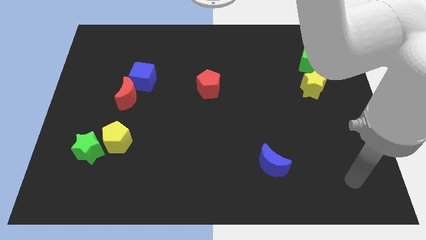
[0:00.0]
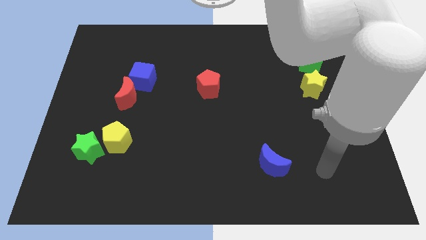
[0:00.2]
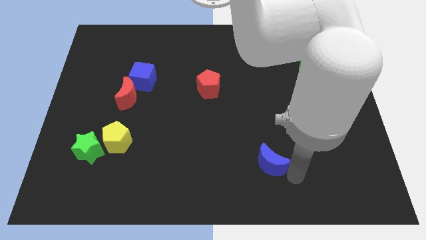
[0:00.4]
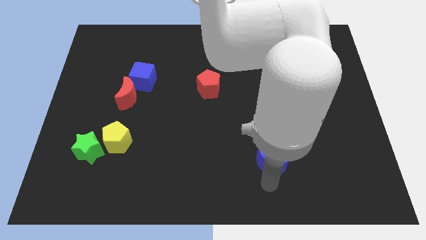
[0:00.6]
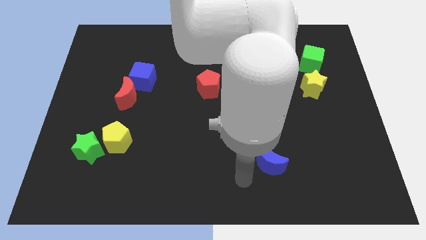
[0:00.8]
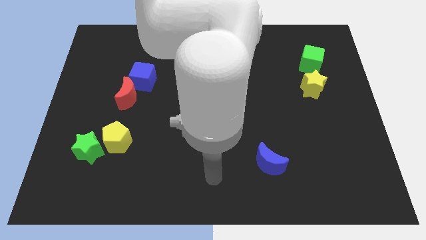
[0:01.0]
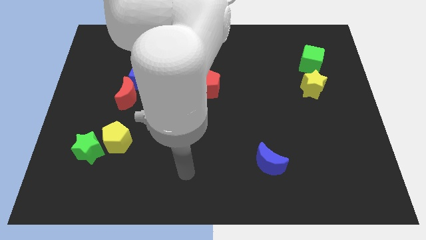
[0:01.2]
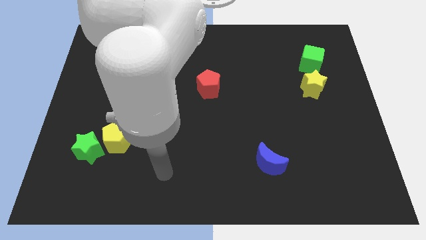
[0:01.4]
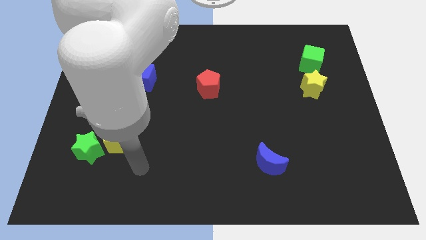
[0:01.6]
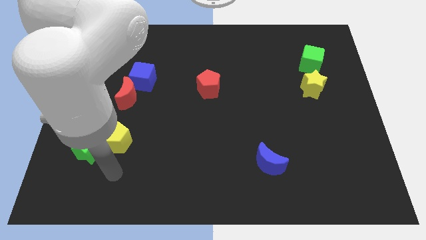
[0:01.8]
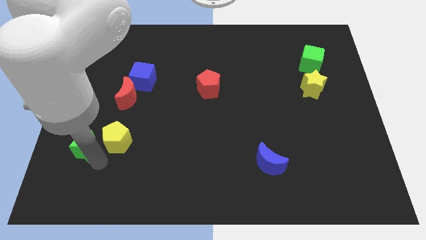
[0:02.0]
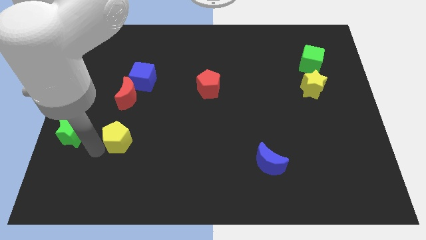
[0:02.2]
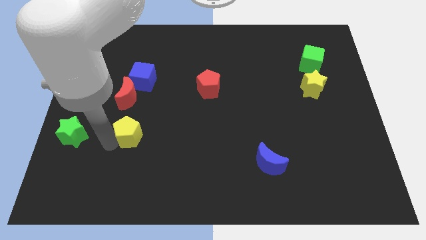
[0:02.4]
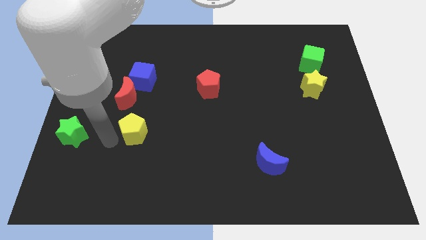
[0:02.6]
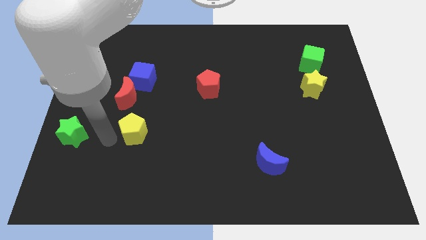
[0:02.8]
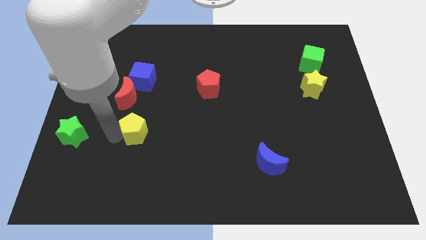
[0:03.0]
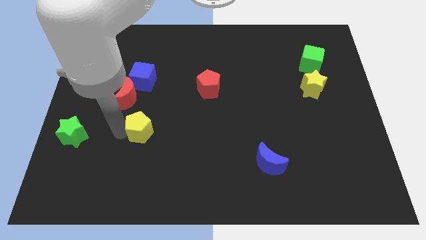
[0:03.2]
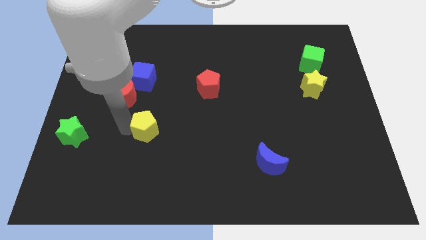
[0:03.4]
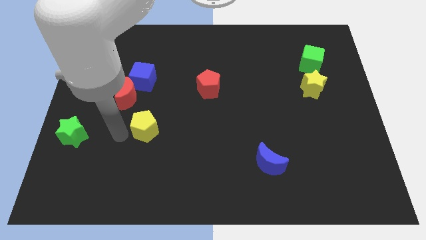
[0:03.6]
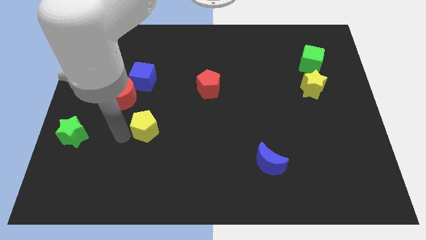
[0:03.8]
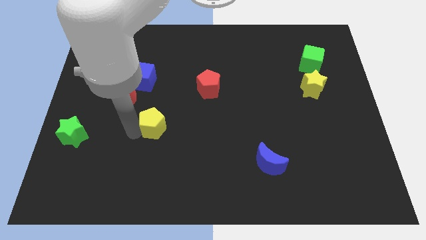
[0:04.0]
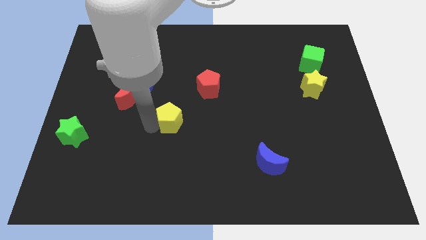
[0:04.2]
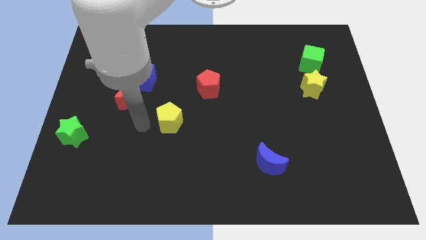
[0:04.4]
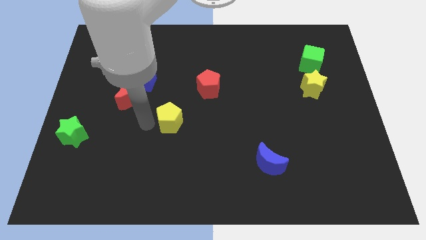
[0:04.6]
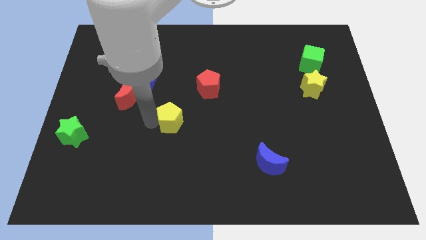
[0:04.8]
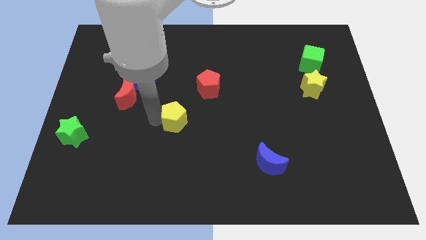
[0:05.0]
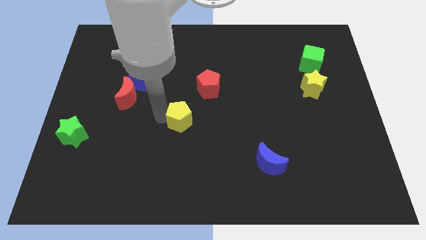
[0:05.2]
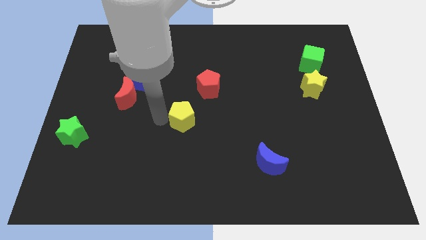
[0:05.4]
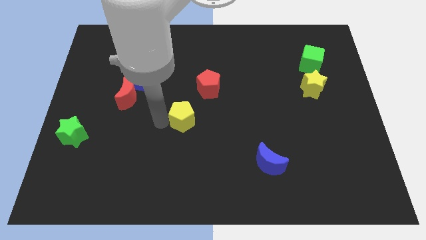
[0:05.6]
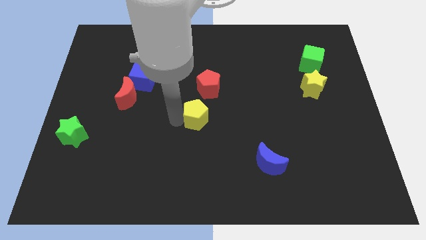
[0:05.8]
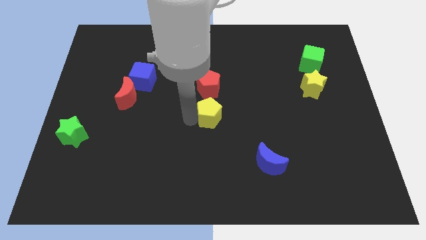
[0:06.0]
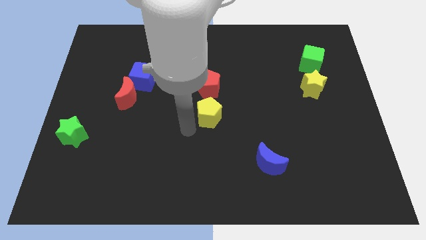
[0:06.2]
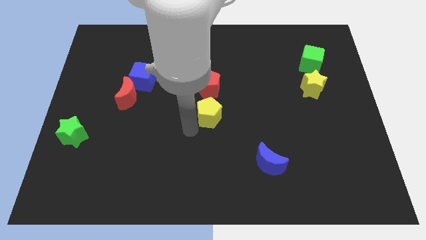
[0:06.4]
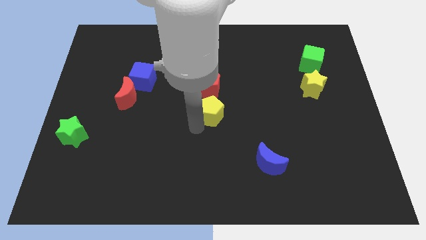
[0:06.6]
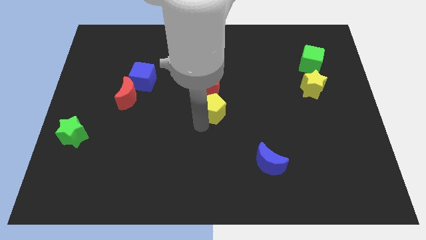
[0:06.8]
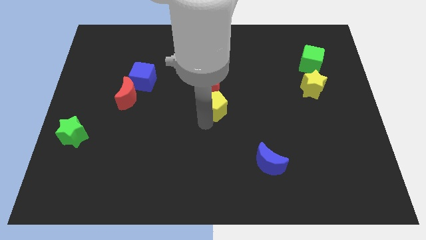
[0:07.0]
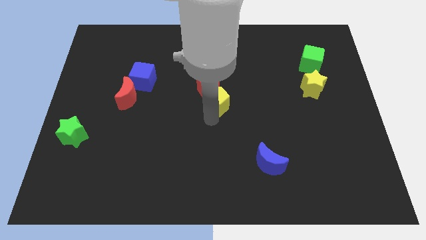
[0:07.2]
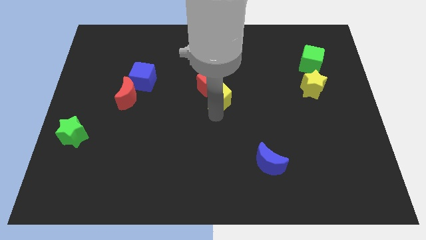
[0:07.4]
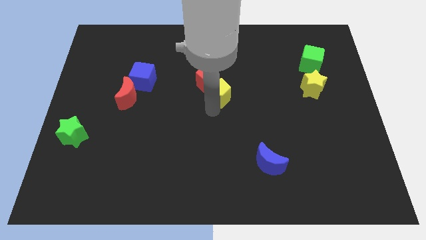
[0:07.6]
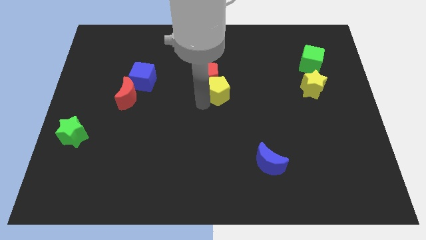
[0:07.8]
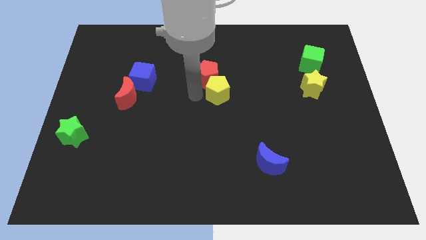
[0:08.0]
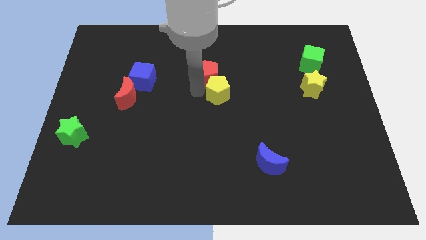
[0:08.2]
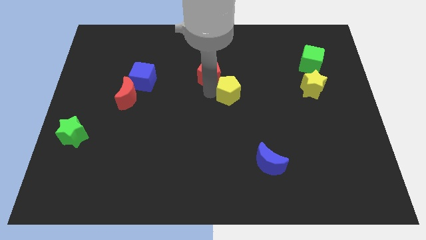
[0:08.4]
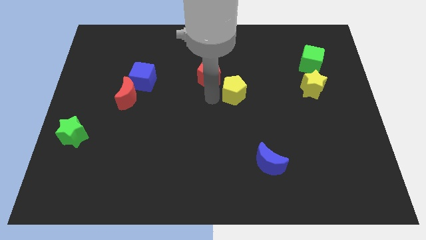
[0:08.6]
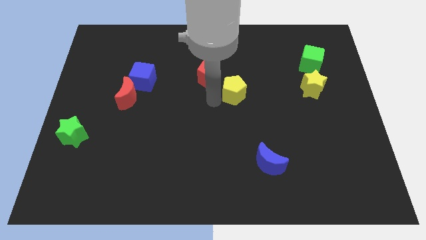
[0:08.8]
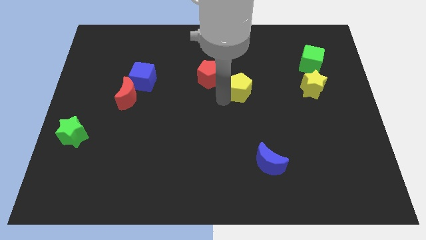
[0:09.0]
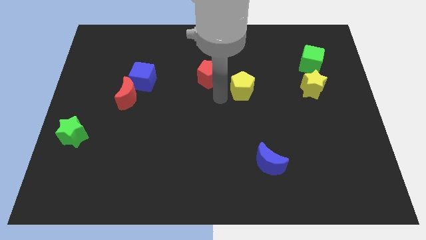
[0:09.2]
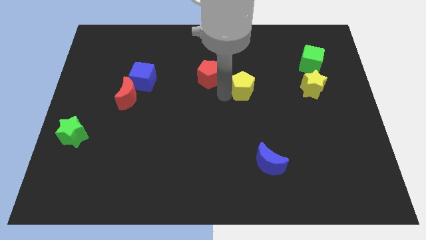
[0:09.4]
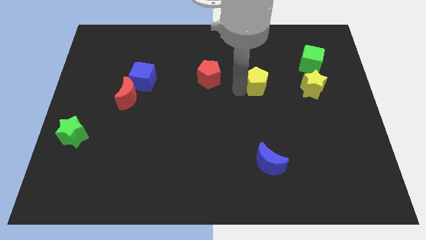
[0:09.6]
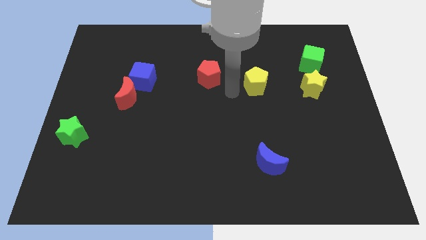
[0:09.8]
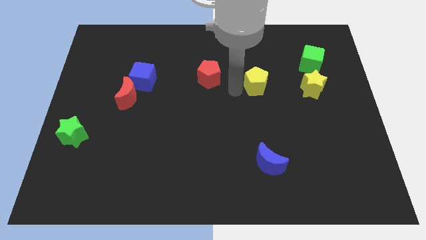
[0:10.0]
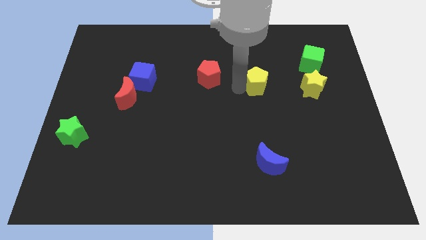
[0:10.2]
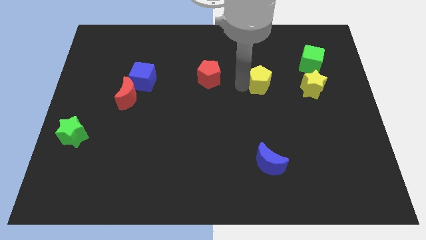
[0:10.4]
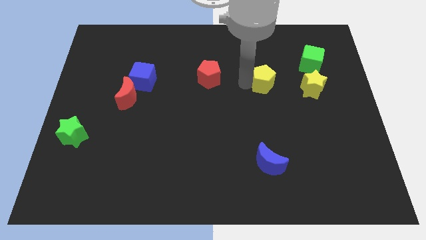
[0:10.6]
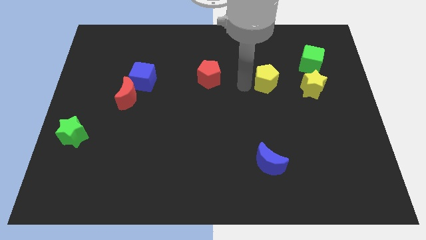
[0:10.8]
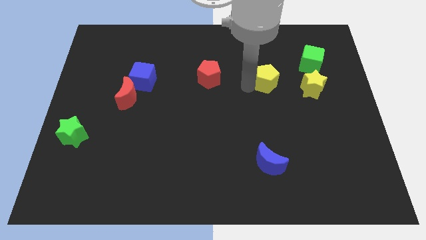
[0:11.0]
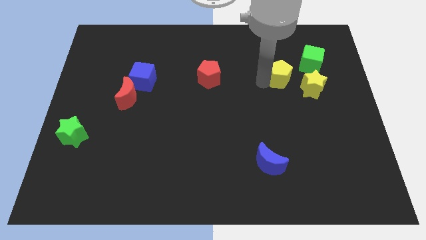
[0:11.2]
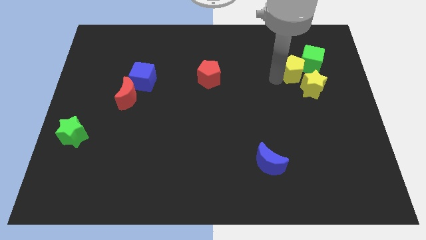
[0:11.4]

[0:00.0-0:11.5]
push the yellow pentagon close to the green cube

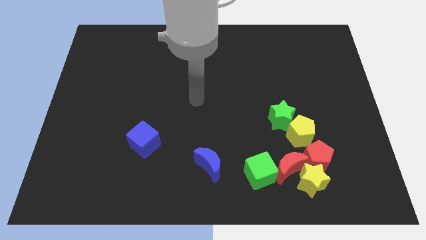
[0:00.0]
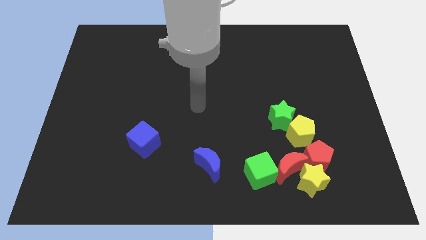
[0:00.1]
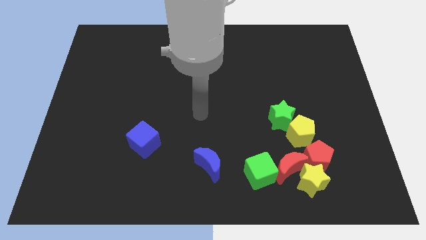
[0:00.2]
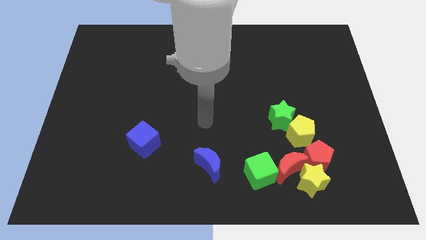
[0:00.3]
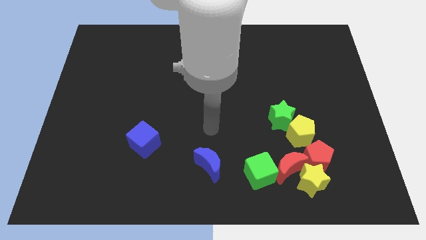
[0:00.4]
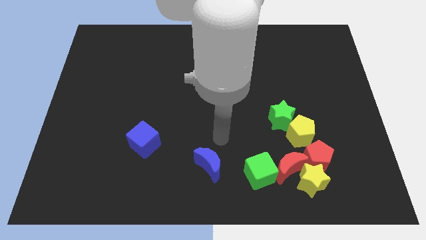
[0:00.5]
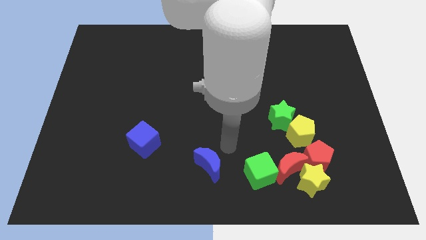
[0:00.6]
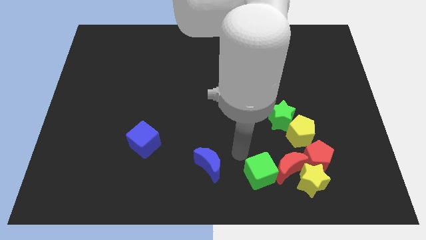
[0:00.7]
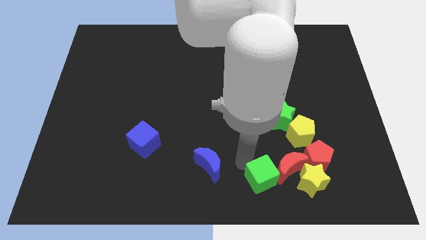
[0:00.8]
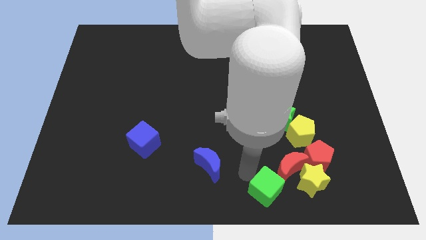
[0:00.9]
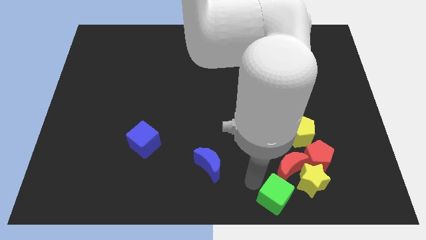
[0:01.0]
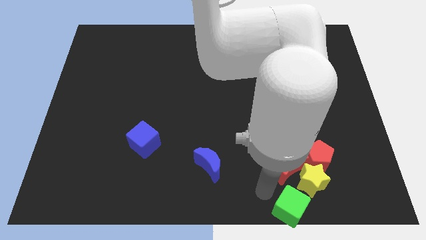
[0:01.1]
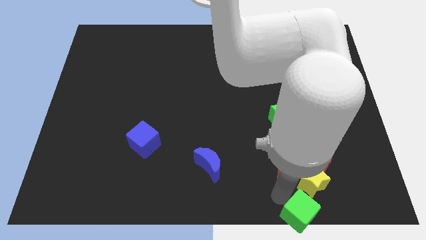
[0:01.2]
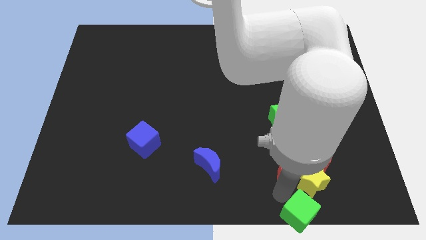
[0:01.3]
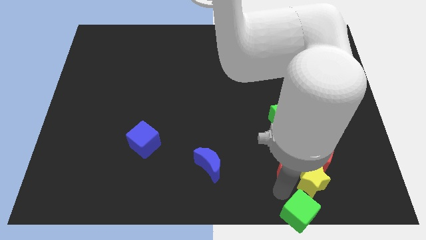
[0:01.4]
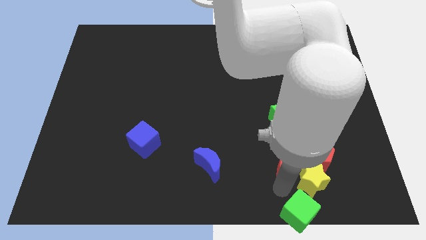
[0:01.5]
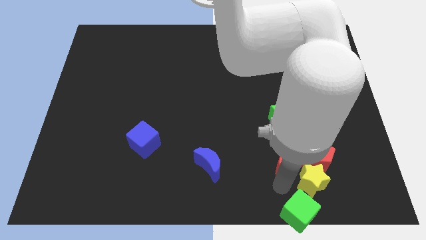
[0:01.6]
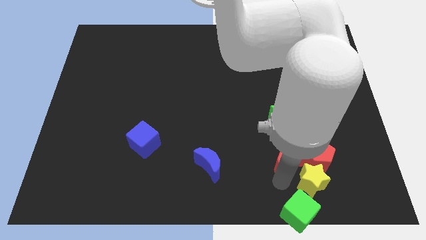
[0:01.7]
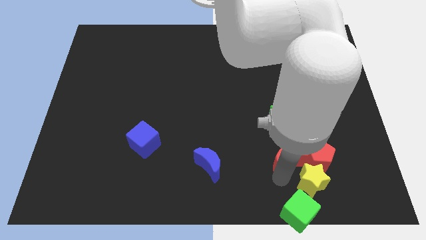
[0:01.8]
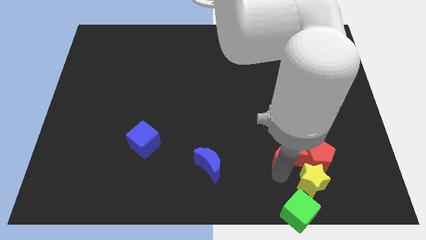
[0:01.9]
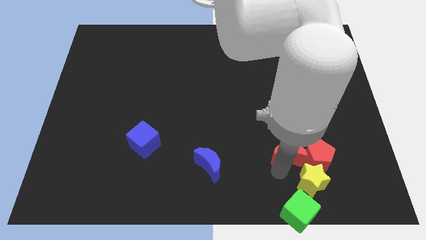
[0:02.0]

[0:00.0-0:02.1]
move the red moon to the yellow pentagon
